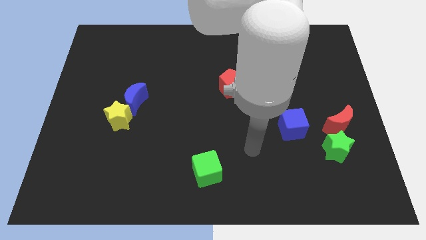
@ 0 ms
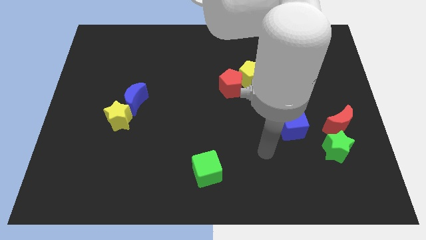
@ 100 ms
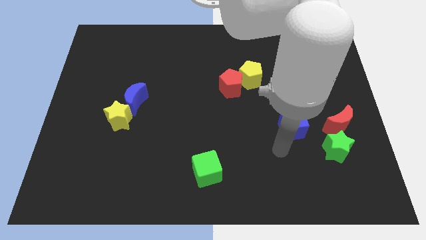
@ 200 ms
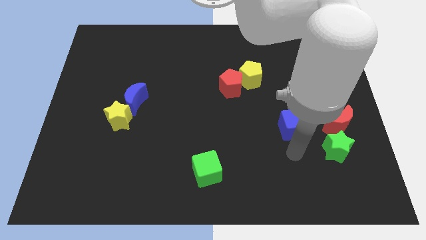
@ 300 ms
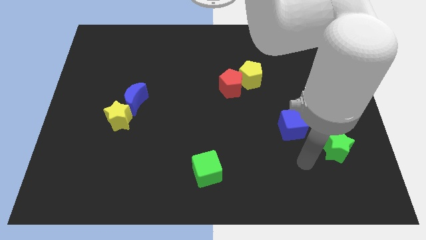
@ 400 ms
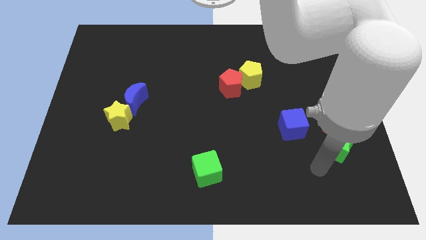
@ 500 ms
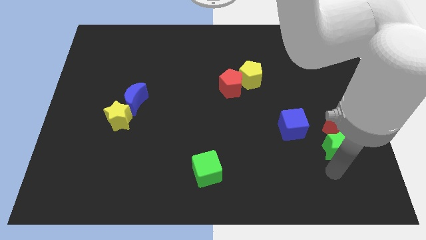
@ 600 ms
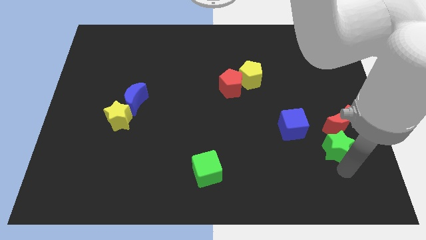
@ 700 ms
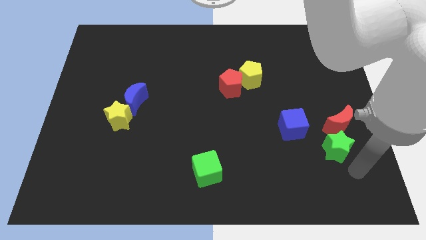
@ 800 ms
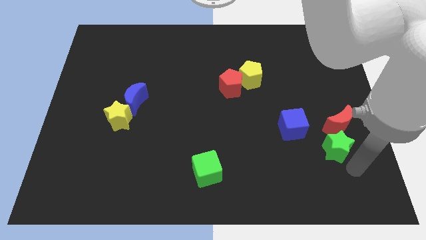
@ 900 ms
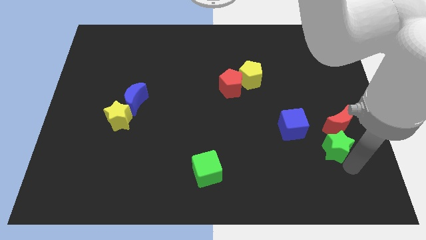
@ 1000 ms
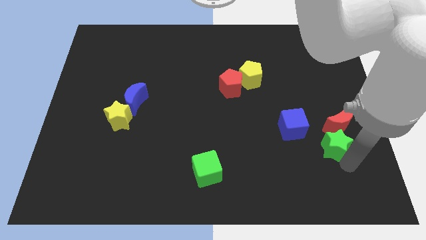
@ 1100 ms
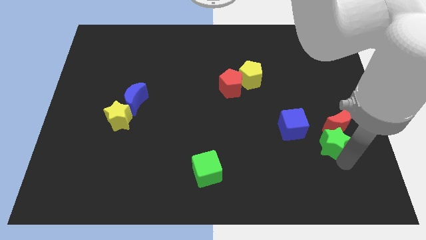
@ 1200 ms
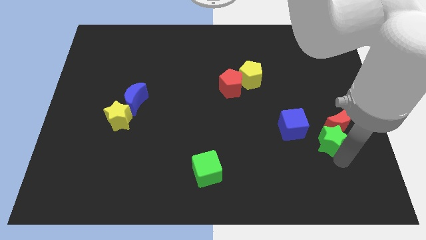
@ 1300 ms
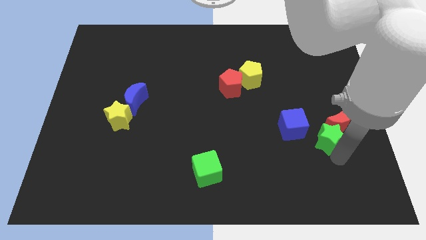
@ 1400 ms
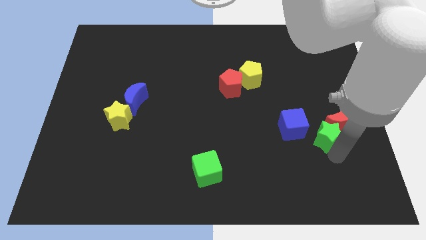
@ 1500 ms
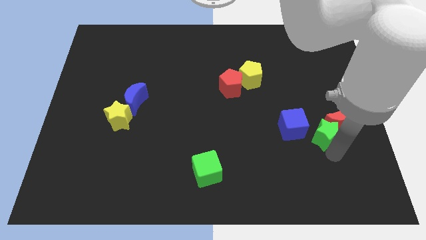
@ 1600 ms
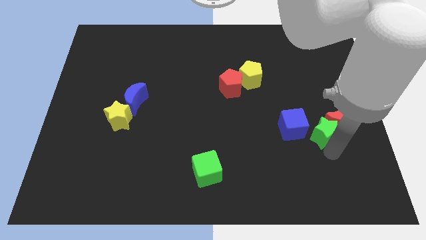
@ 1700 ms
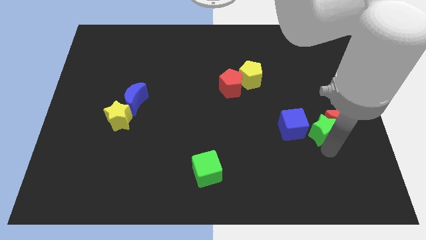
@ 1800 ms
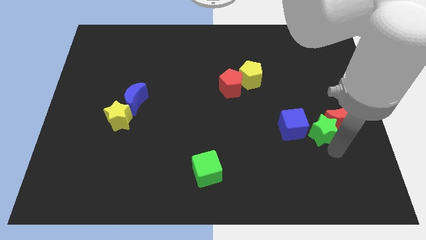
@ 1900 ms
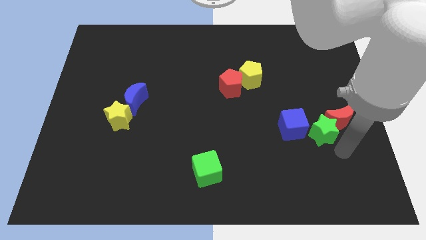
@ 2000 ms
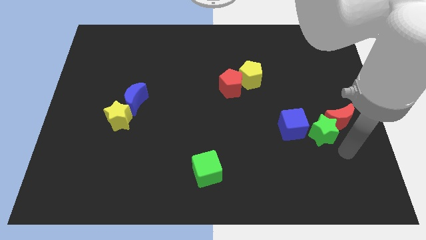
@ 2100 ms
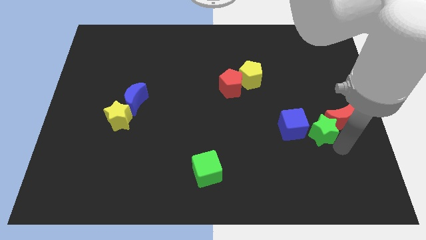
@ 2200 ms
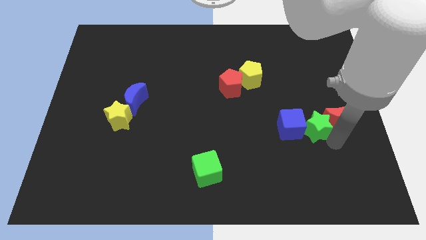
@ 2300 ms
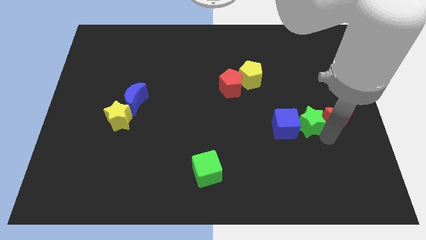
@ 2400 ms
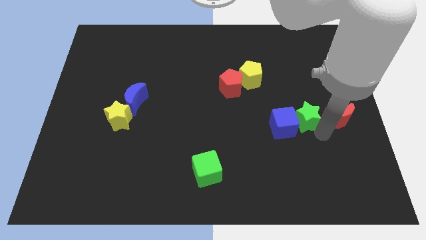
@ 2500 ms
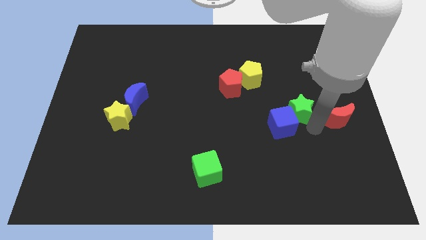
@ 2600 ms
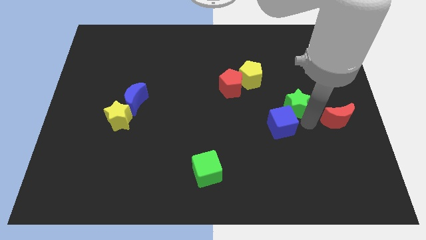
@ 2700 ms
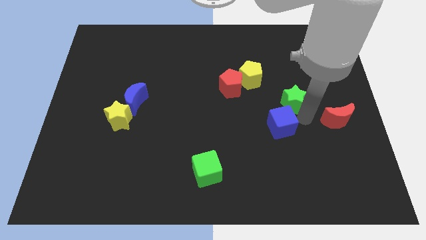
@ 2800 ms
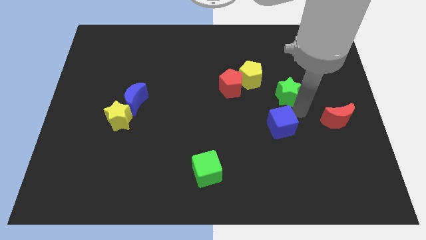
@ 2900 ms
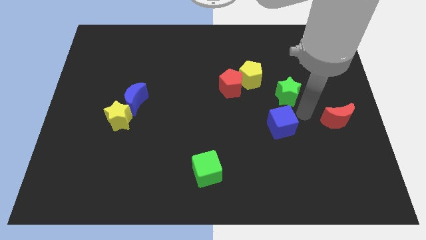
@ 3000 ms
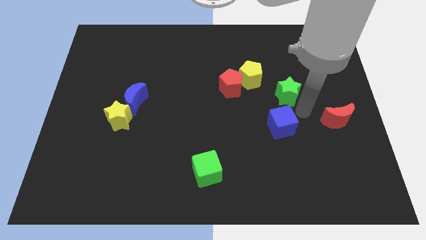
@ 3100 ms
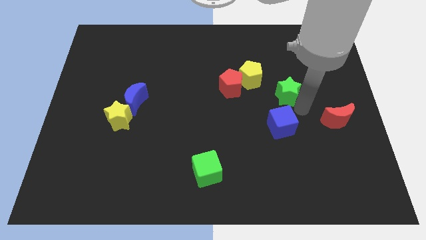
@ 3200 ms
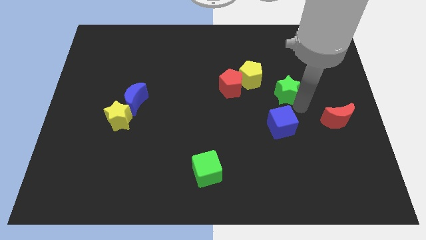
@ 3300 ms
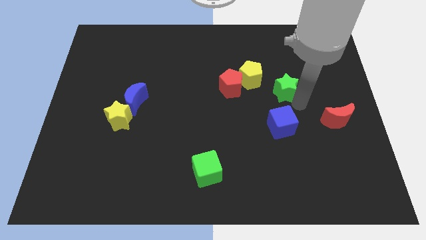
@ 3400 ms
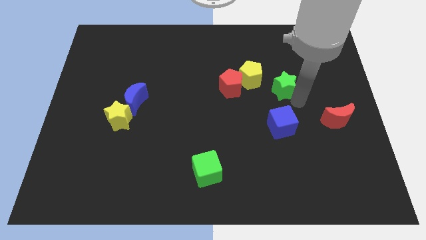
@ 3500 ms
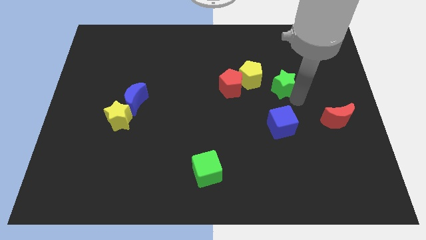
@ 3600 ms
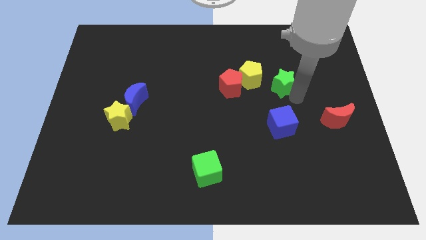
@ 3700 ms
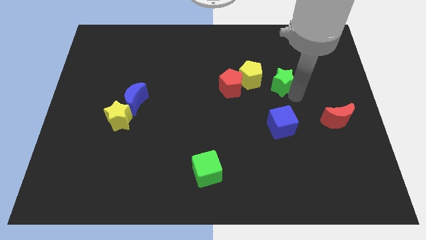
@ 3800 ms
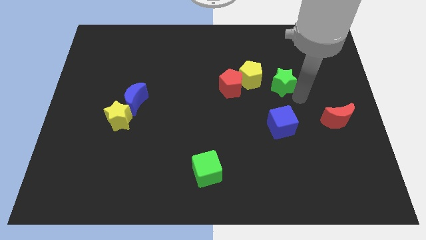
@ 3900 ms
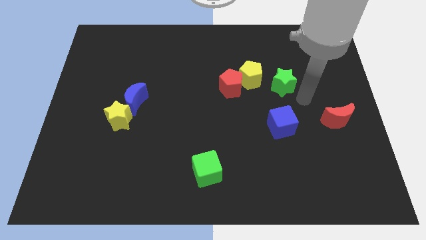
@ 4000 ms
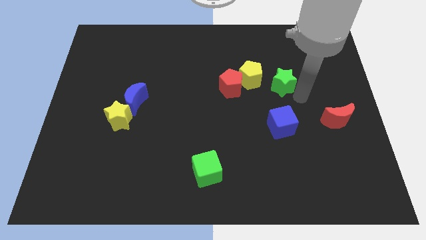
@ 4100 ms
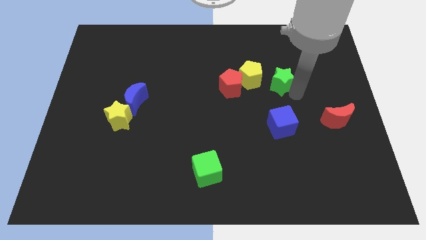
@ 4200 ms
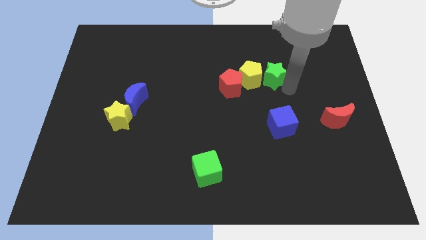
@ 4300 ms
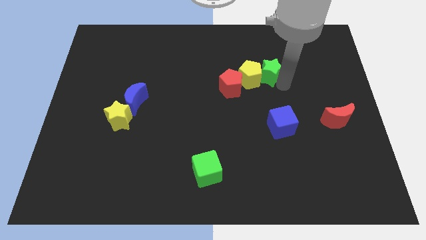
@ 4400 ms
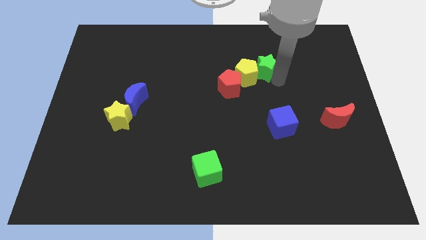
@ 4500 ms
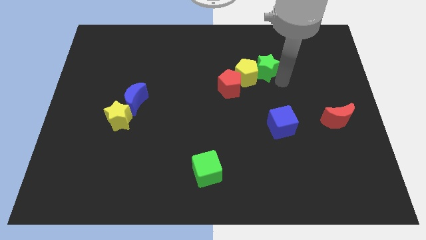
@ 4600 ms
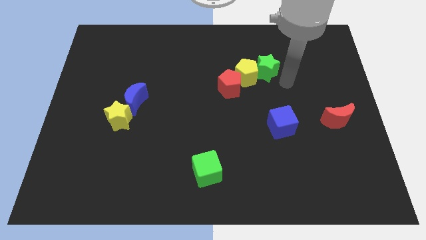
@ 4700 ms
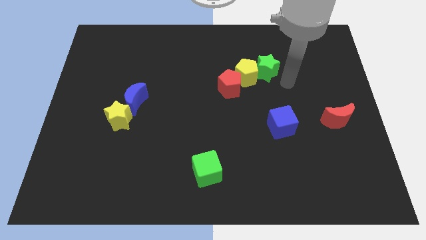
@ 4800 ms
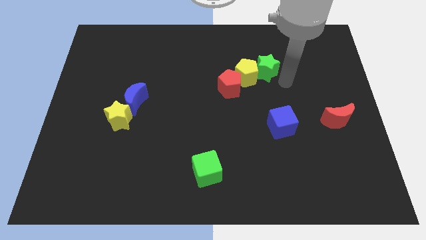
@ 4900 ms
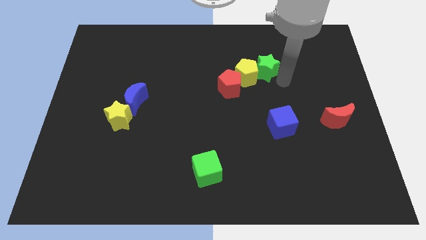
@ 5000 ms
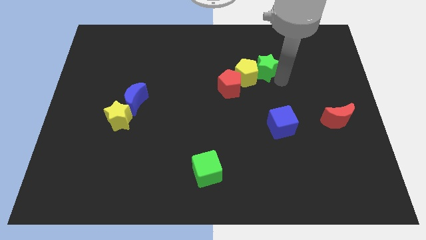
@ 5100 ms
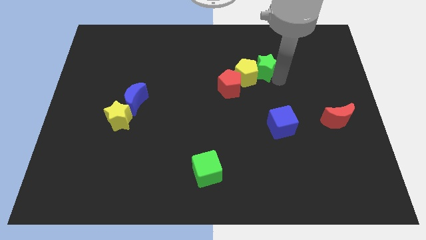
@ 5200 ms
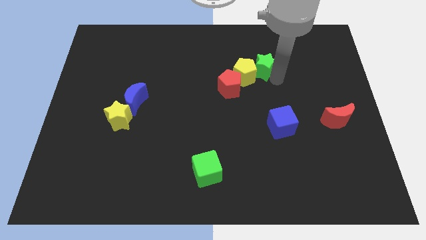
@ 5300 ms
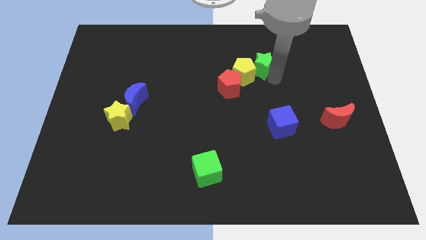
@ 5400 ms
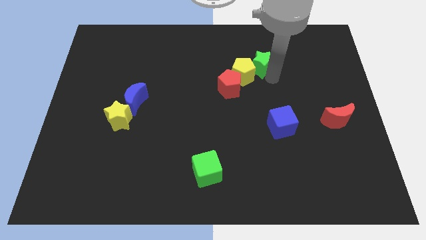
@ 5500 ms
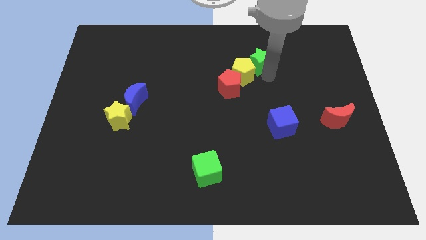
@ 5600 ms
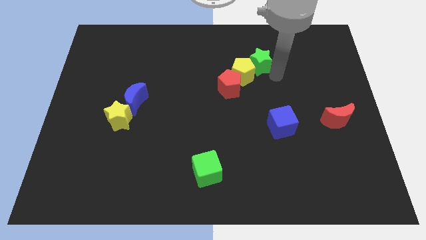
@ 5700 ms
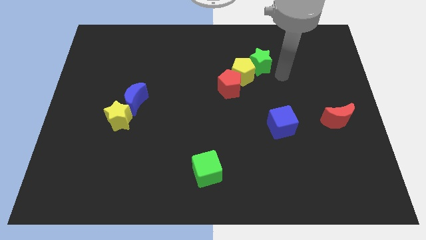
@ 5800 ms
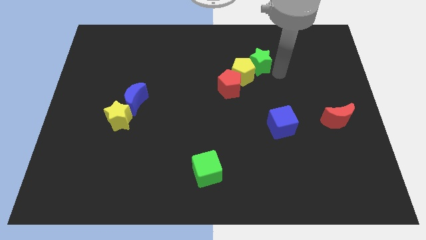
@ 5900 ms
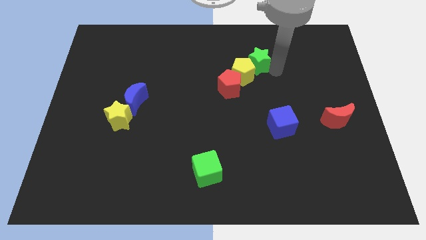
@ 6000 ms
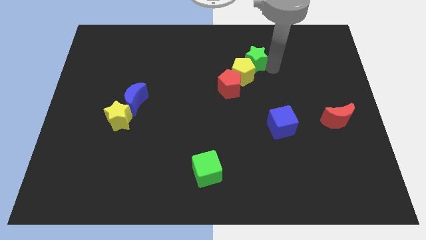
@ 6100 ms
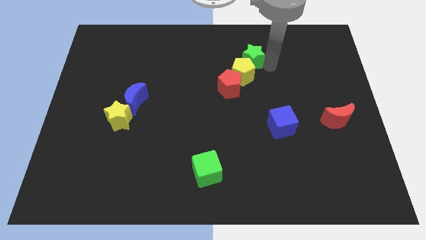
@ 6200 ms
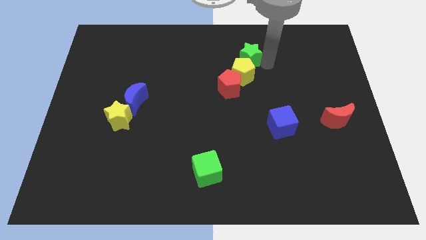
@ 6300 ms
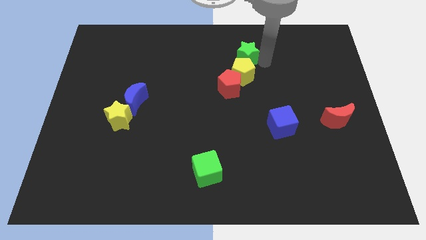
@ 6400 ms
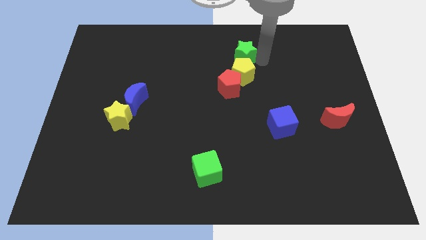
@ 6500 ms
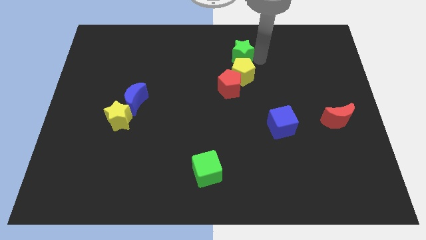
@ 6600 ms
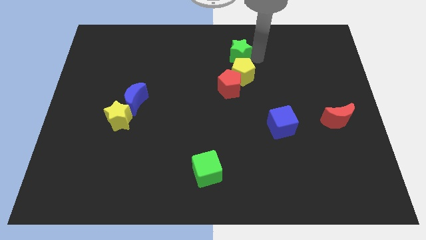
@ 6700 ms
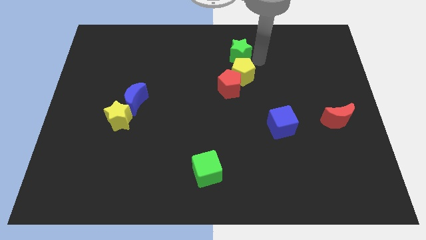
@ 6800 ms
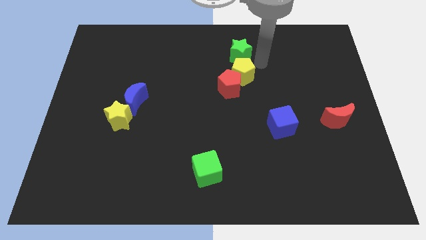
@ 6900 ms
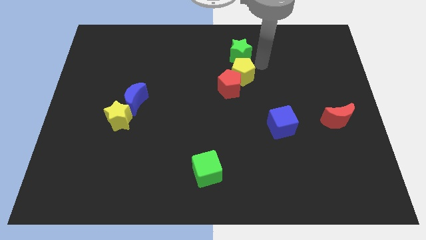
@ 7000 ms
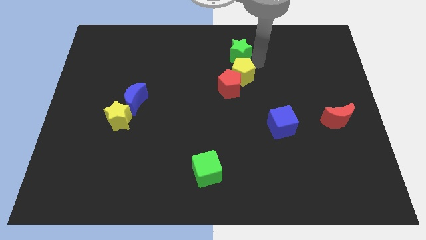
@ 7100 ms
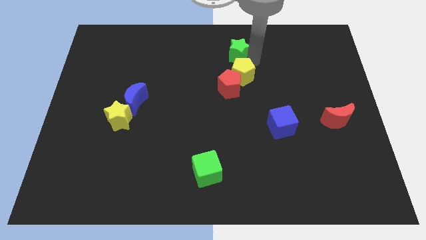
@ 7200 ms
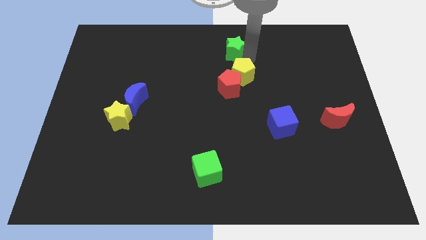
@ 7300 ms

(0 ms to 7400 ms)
slide the green star to the top side
